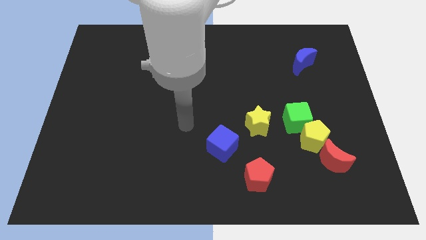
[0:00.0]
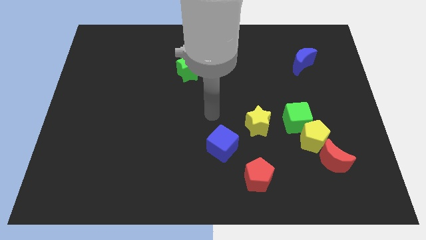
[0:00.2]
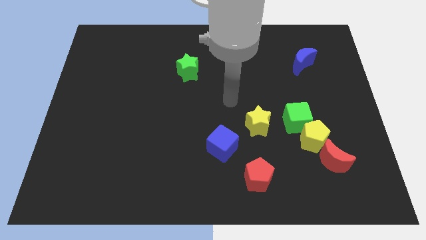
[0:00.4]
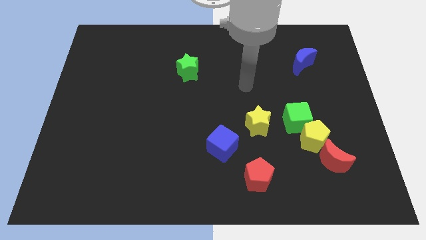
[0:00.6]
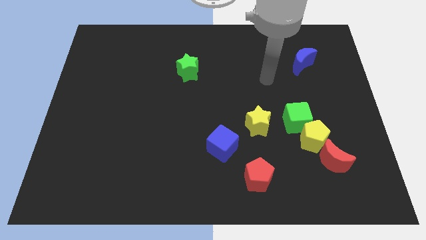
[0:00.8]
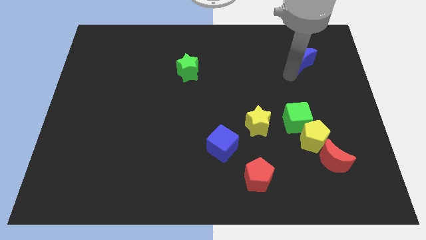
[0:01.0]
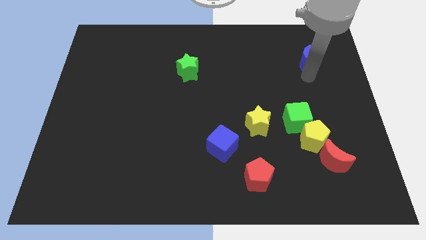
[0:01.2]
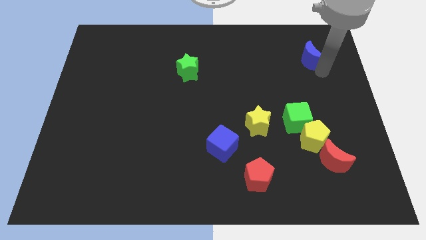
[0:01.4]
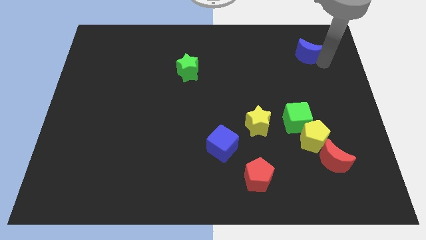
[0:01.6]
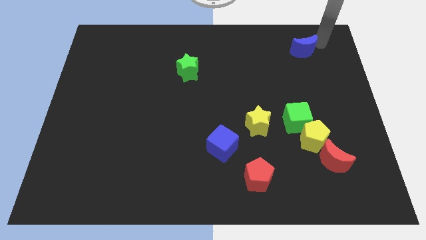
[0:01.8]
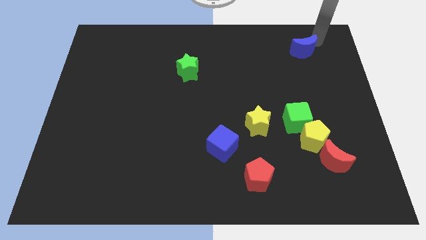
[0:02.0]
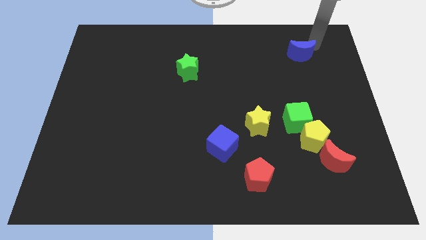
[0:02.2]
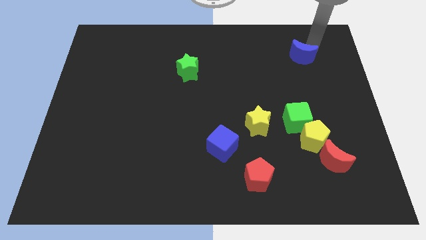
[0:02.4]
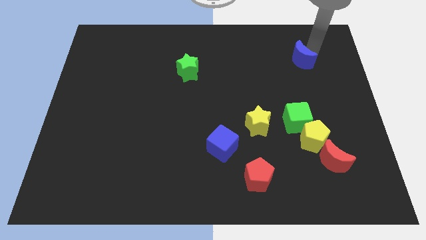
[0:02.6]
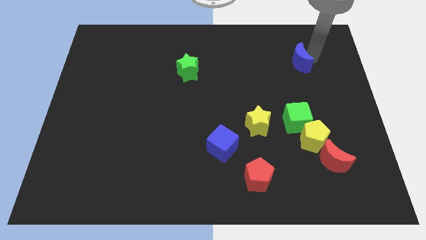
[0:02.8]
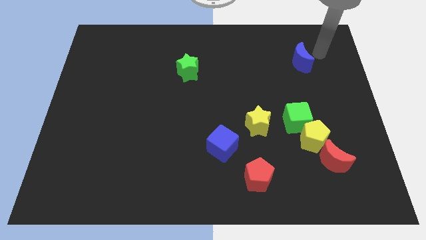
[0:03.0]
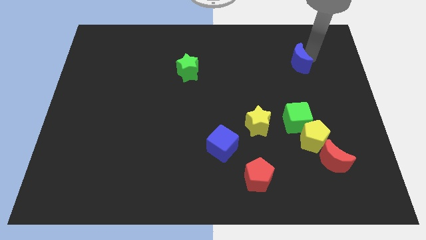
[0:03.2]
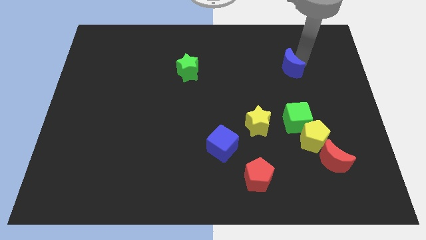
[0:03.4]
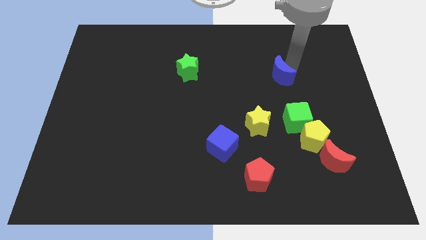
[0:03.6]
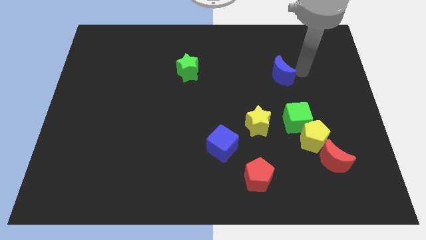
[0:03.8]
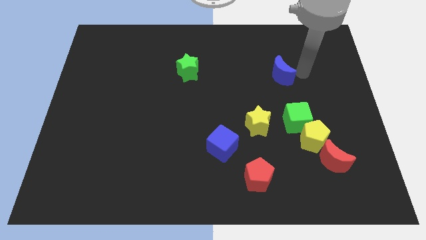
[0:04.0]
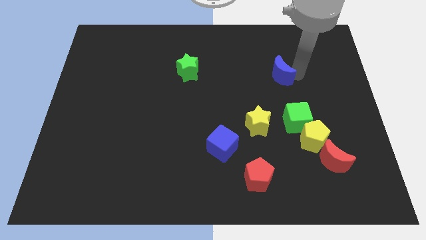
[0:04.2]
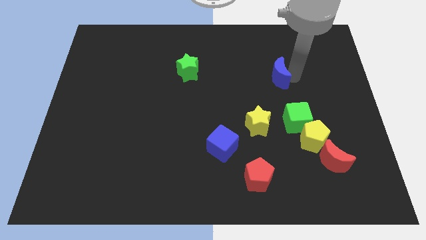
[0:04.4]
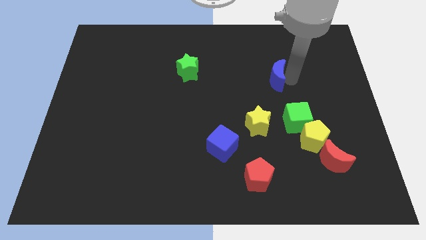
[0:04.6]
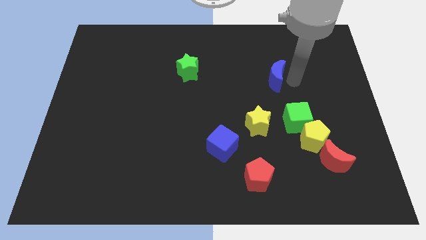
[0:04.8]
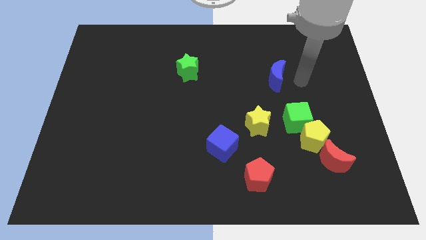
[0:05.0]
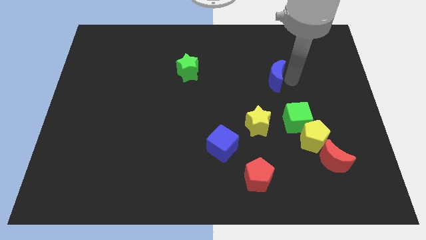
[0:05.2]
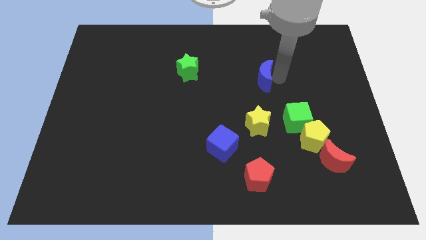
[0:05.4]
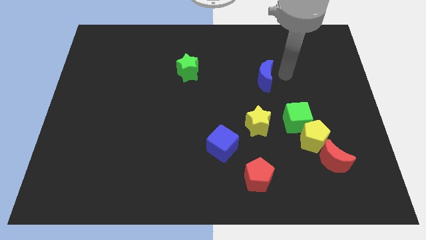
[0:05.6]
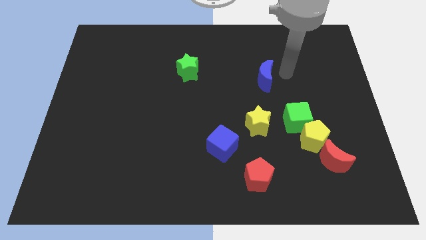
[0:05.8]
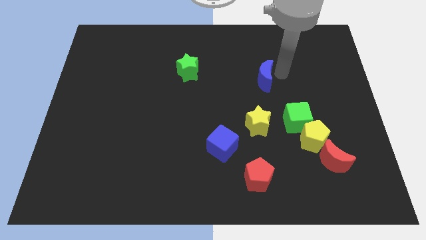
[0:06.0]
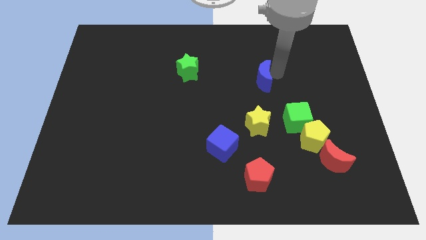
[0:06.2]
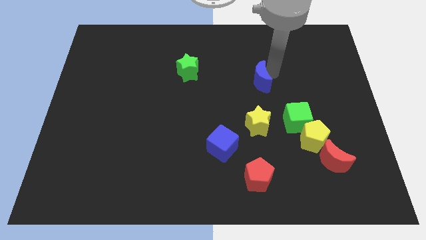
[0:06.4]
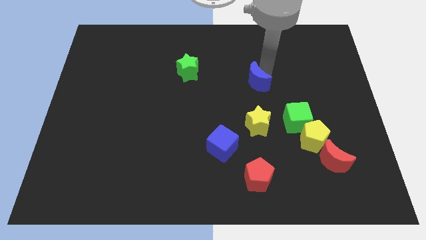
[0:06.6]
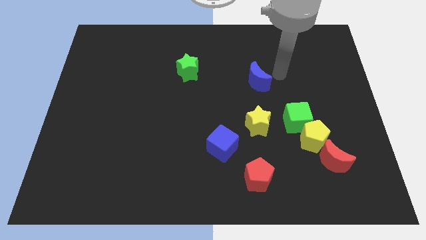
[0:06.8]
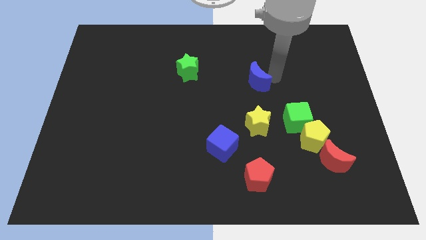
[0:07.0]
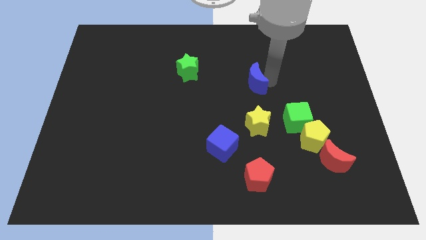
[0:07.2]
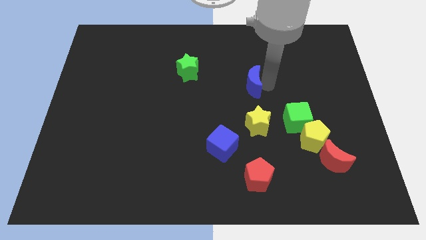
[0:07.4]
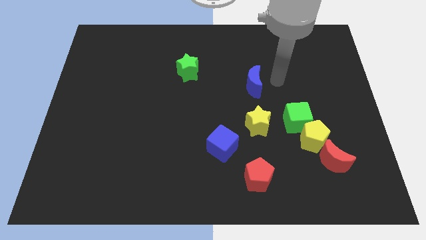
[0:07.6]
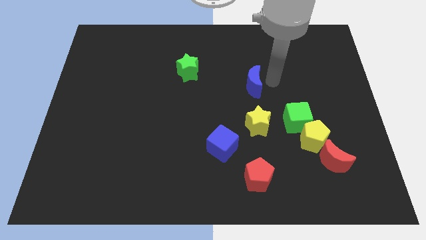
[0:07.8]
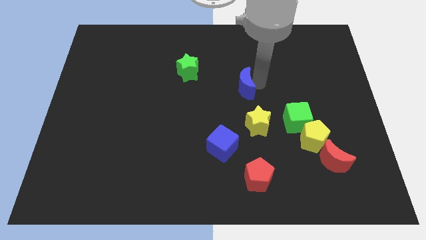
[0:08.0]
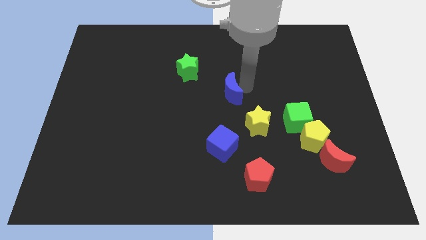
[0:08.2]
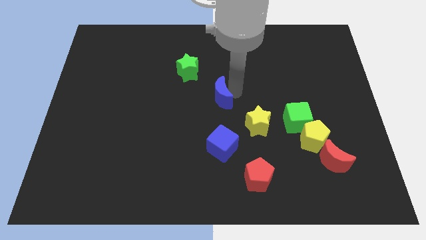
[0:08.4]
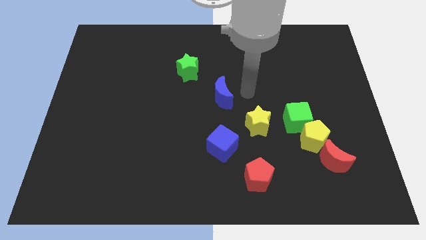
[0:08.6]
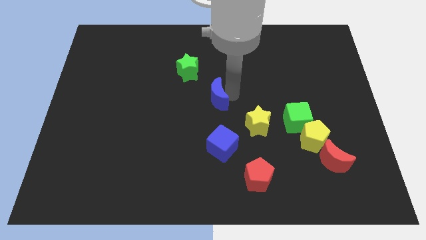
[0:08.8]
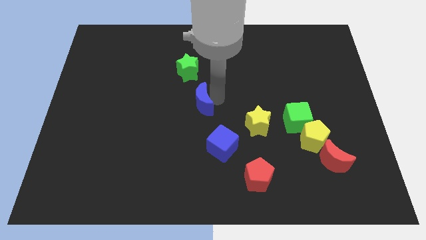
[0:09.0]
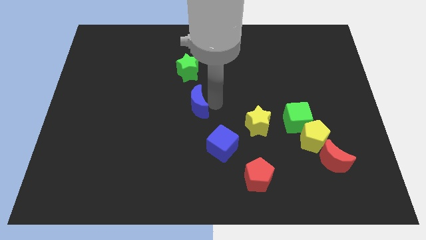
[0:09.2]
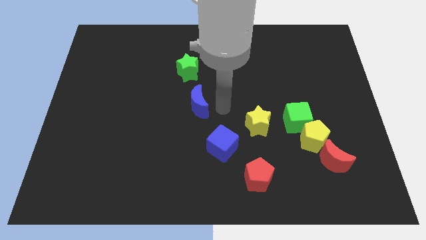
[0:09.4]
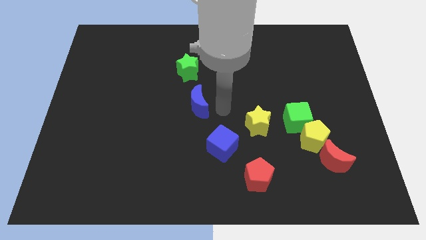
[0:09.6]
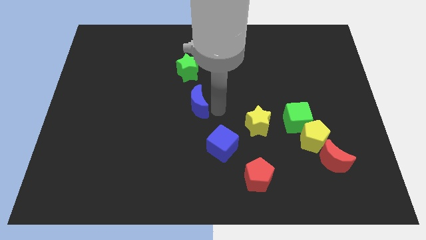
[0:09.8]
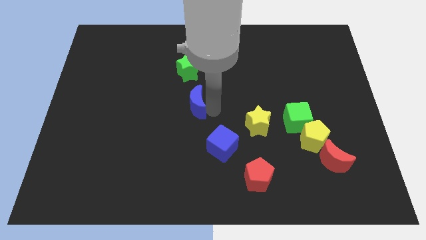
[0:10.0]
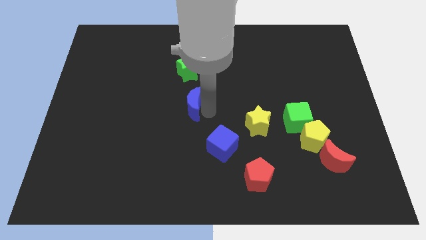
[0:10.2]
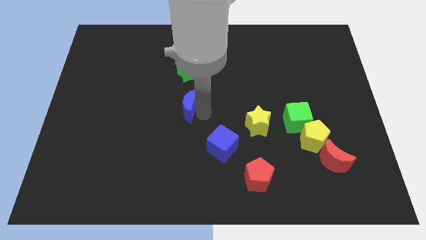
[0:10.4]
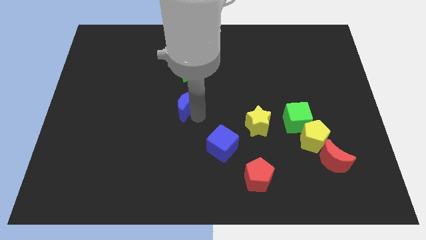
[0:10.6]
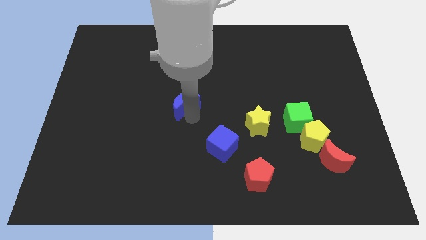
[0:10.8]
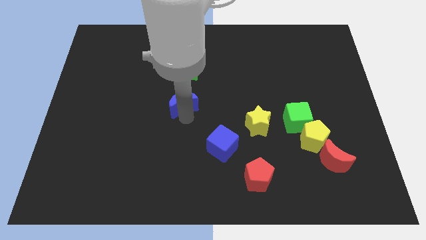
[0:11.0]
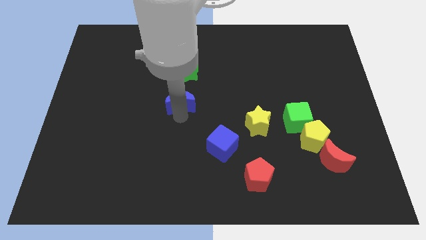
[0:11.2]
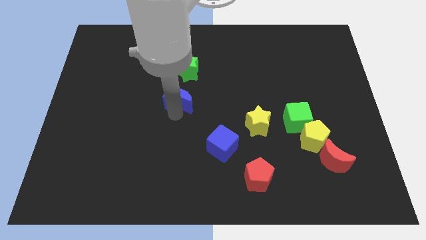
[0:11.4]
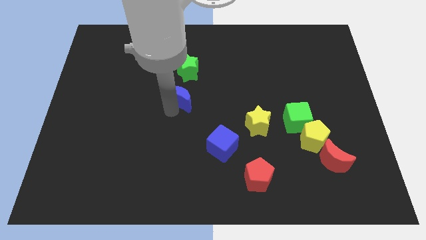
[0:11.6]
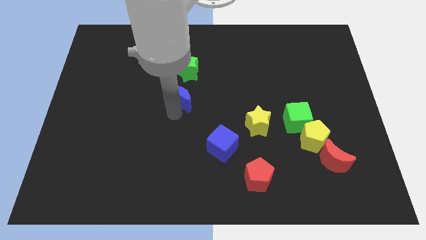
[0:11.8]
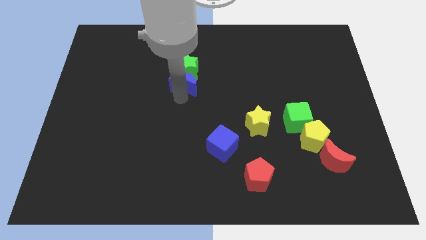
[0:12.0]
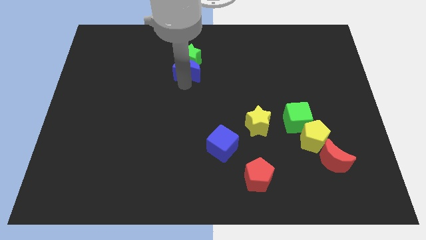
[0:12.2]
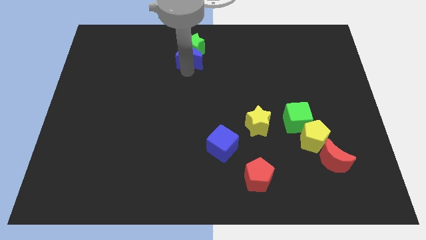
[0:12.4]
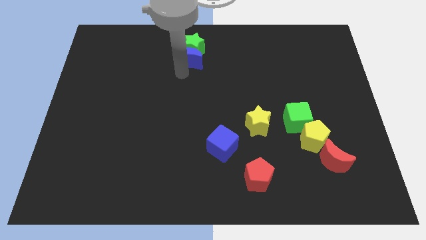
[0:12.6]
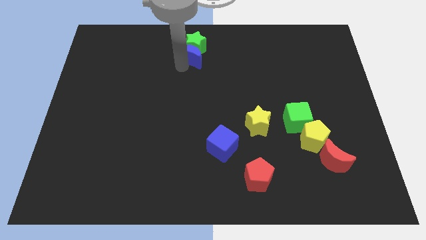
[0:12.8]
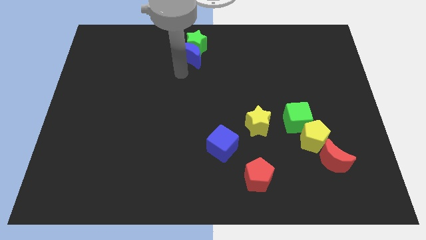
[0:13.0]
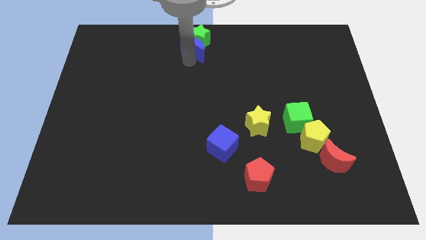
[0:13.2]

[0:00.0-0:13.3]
push the blue moon to the top side
